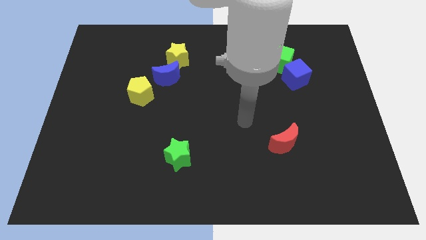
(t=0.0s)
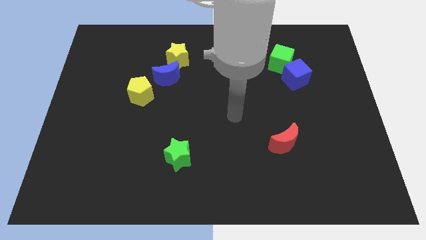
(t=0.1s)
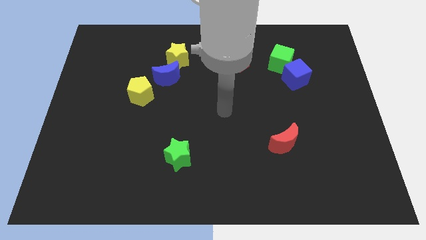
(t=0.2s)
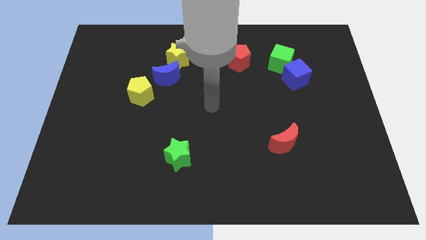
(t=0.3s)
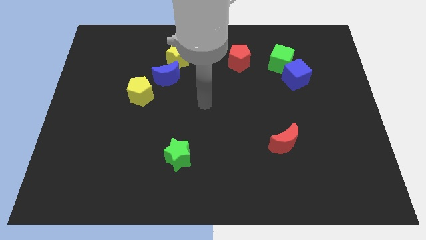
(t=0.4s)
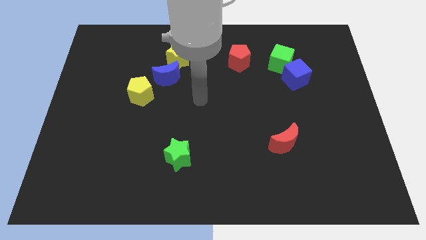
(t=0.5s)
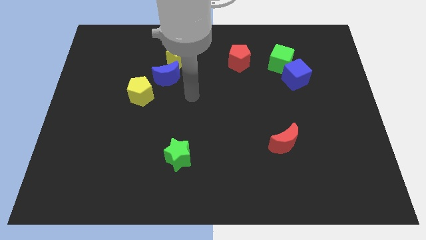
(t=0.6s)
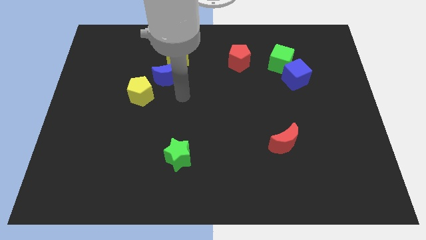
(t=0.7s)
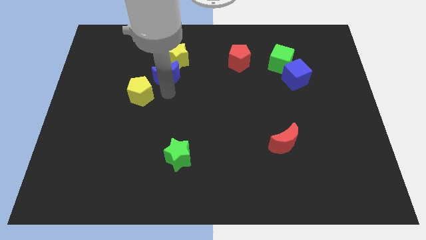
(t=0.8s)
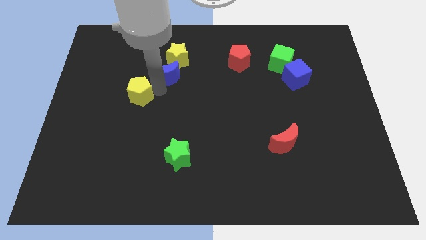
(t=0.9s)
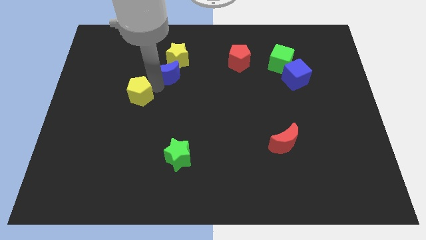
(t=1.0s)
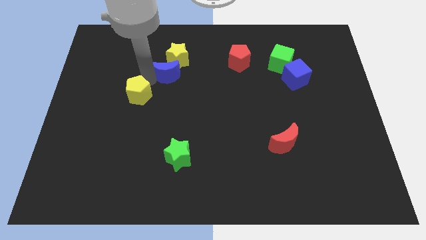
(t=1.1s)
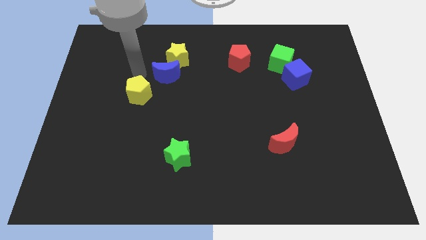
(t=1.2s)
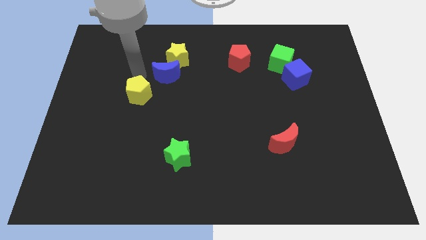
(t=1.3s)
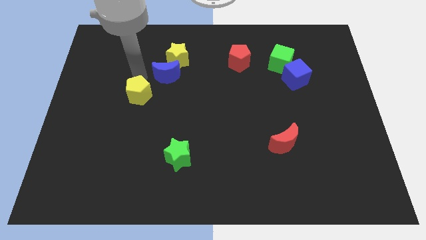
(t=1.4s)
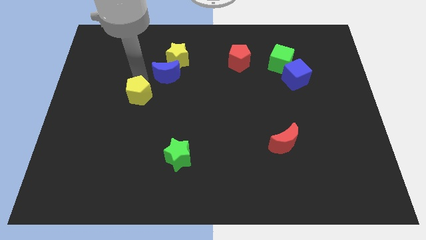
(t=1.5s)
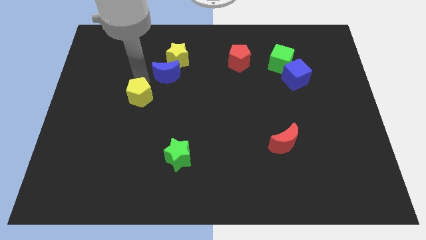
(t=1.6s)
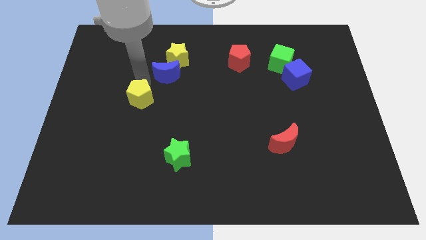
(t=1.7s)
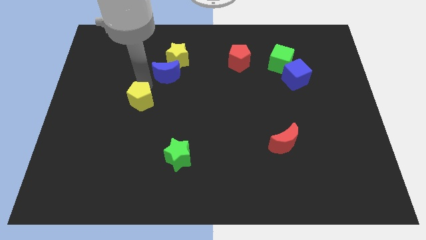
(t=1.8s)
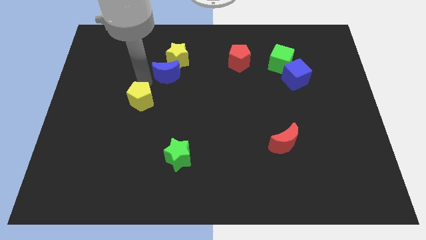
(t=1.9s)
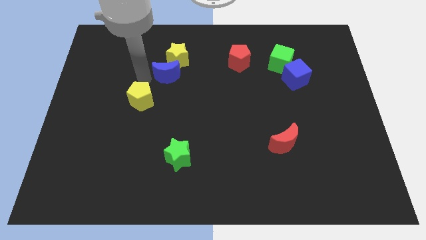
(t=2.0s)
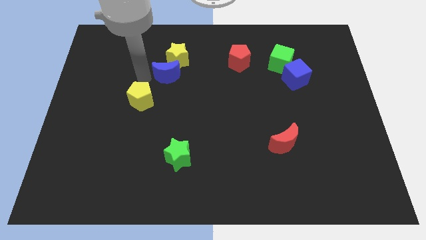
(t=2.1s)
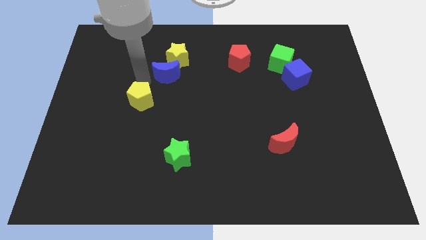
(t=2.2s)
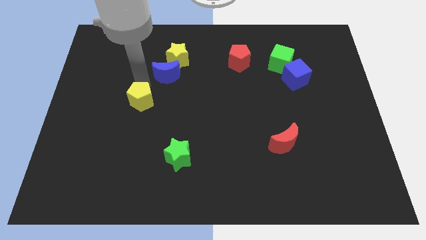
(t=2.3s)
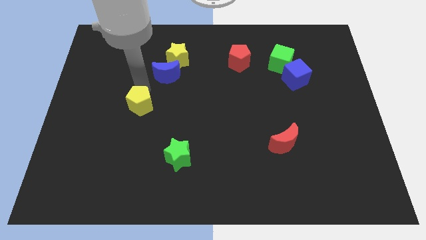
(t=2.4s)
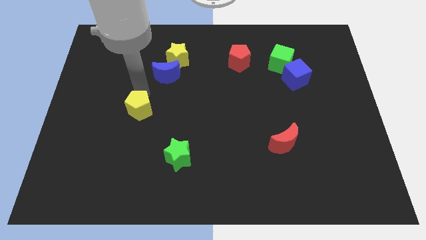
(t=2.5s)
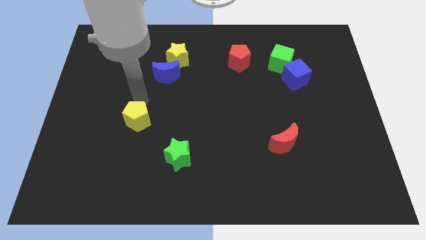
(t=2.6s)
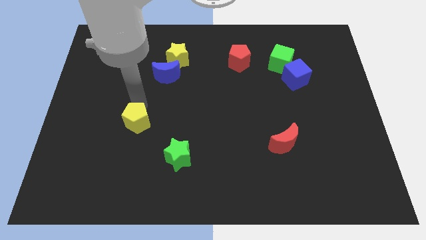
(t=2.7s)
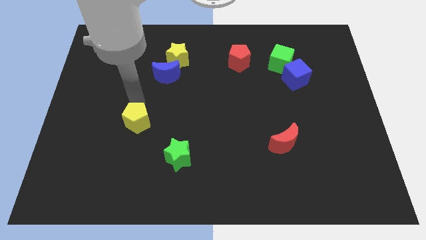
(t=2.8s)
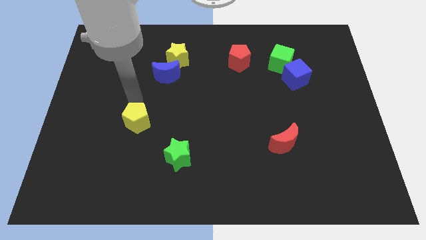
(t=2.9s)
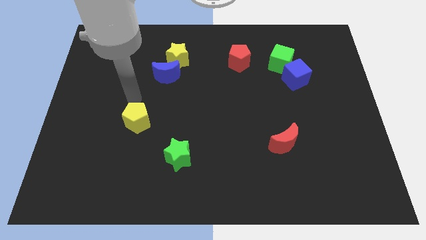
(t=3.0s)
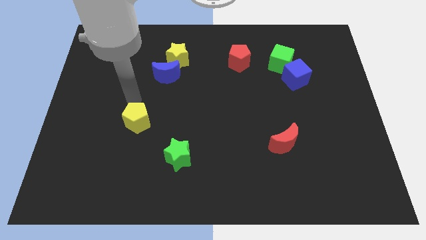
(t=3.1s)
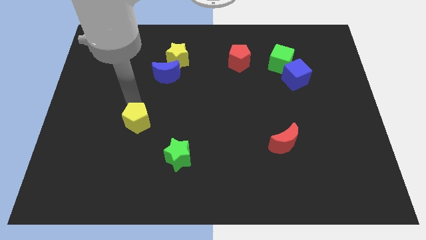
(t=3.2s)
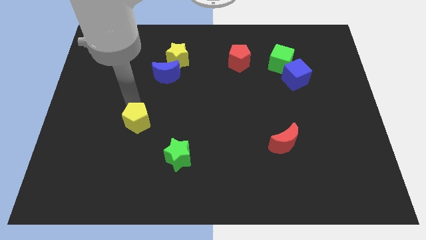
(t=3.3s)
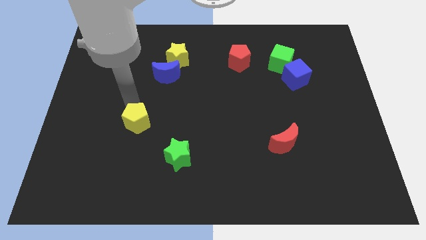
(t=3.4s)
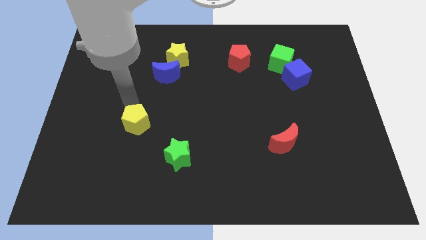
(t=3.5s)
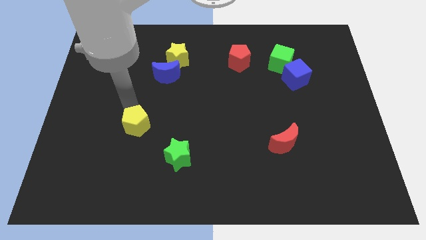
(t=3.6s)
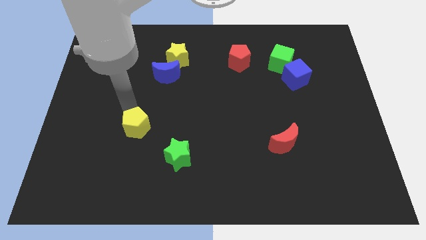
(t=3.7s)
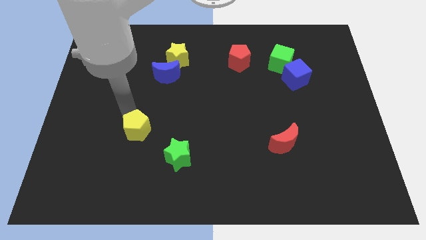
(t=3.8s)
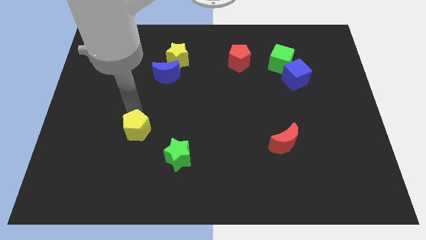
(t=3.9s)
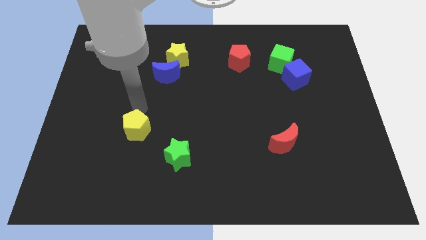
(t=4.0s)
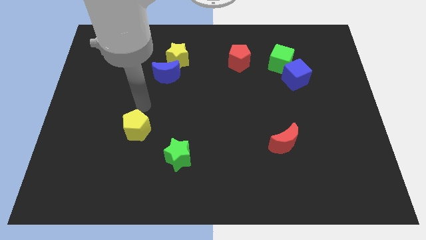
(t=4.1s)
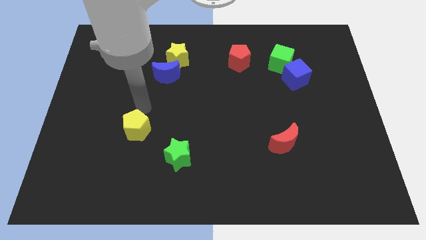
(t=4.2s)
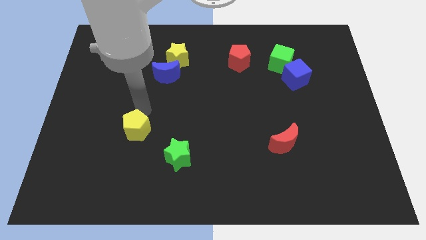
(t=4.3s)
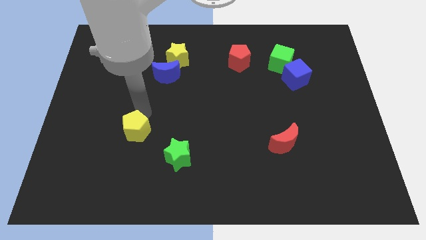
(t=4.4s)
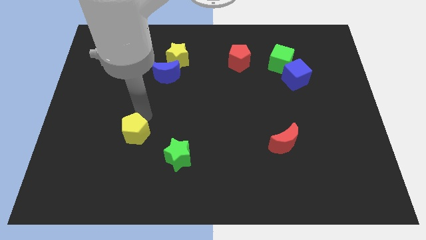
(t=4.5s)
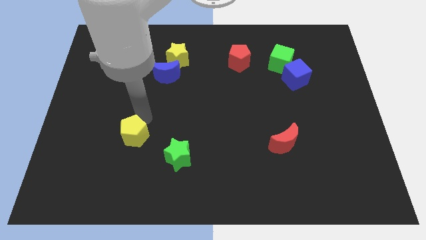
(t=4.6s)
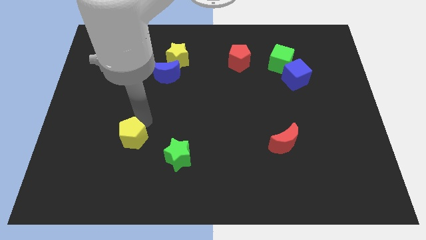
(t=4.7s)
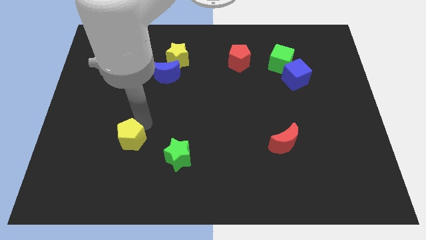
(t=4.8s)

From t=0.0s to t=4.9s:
put the yellow pentagon to the left side of the green star

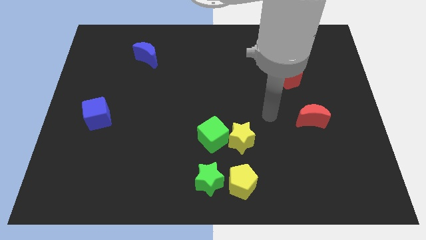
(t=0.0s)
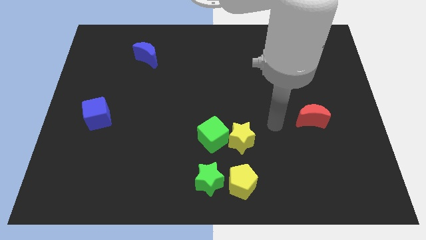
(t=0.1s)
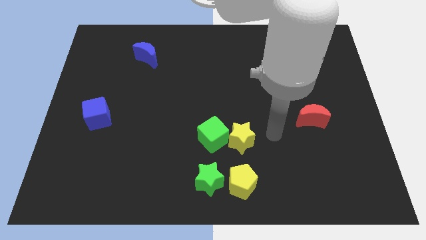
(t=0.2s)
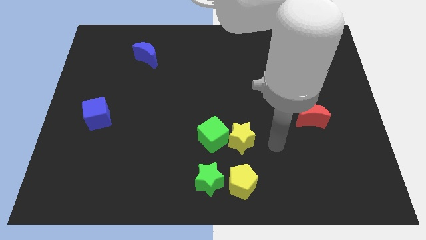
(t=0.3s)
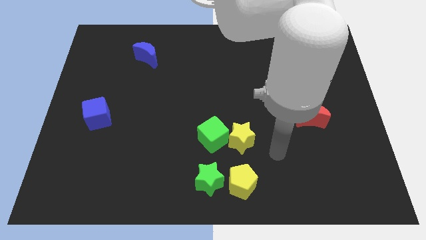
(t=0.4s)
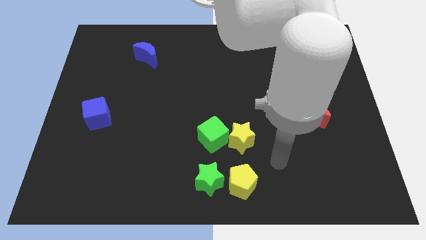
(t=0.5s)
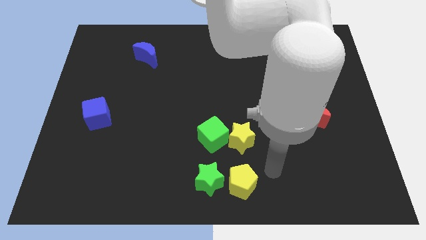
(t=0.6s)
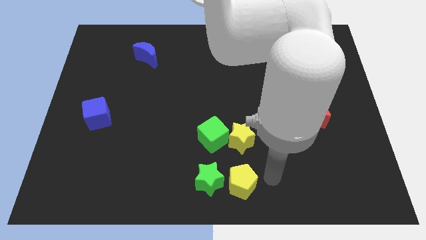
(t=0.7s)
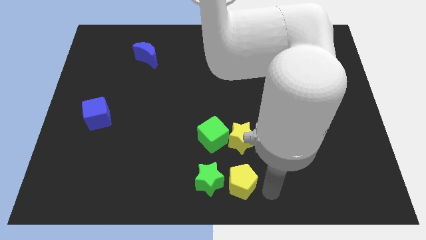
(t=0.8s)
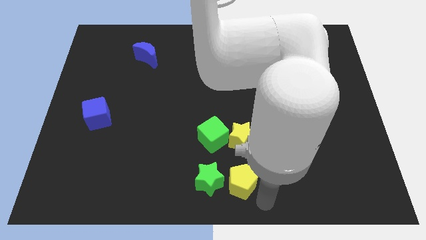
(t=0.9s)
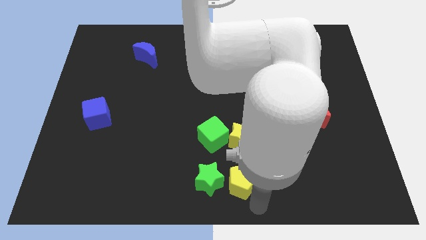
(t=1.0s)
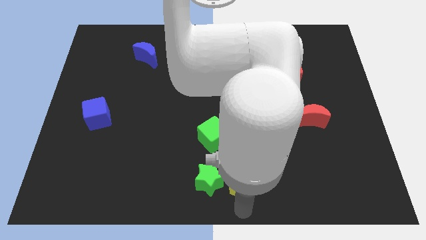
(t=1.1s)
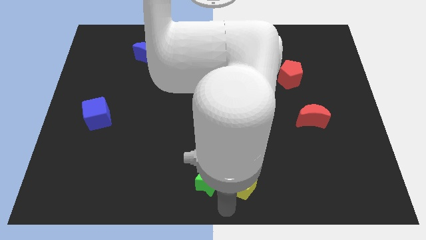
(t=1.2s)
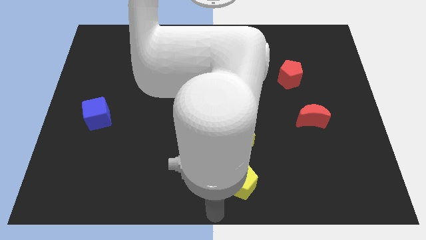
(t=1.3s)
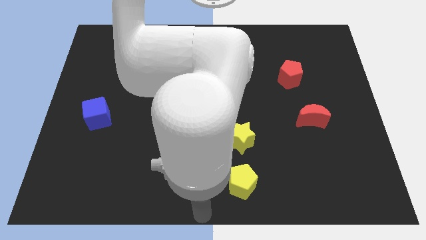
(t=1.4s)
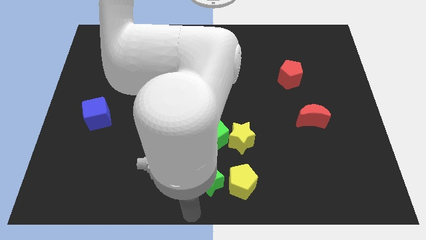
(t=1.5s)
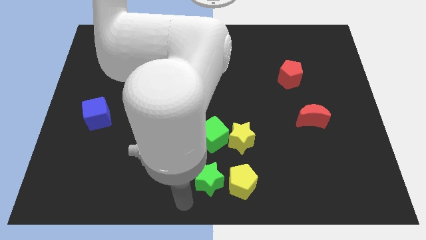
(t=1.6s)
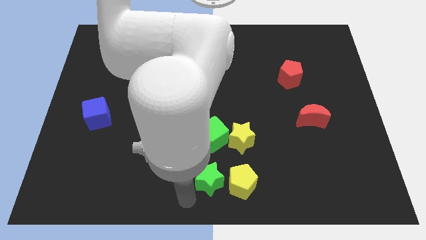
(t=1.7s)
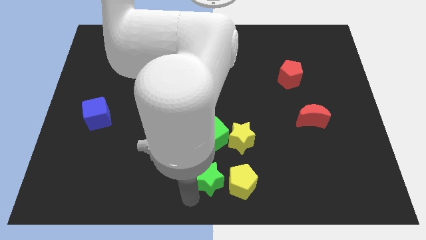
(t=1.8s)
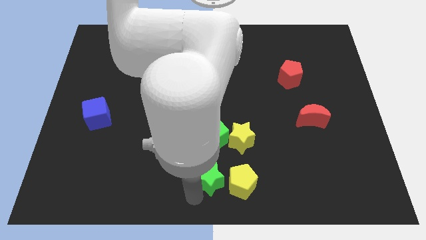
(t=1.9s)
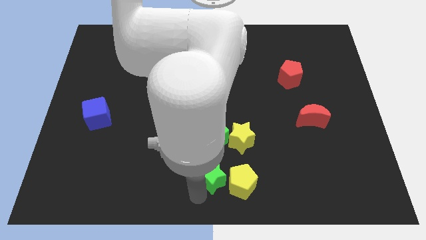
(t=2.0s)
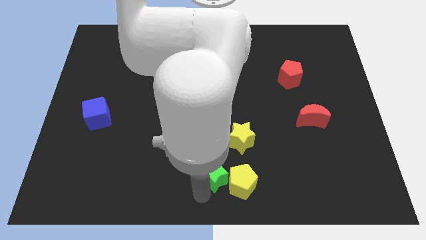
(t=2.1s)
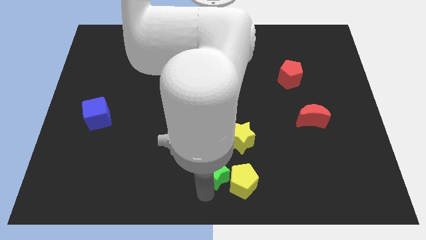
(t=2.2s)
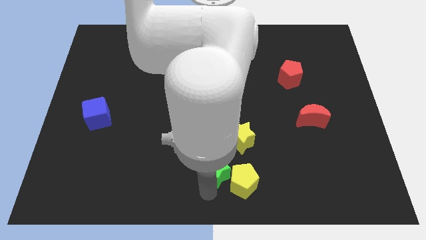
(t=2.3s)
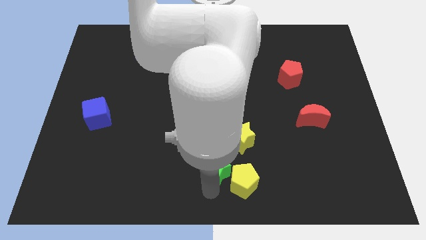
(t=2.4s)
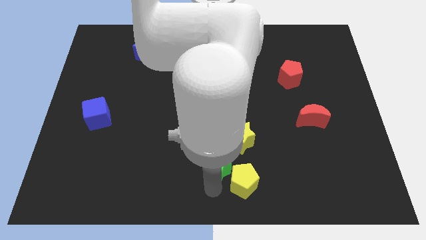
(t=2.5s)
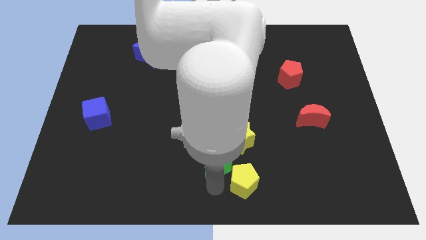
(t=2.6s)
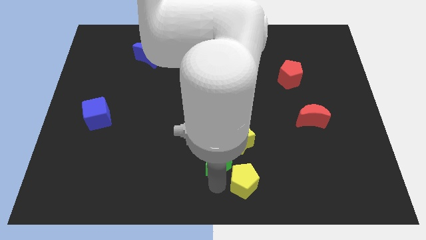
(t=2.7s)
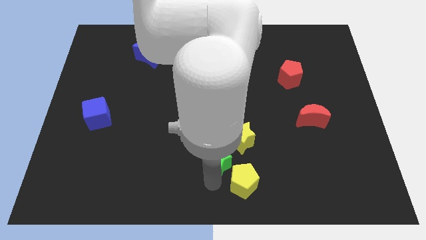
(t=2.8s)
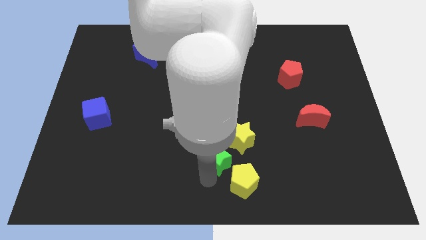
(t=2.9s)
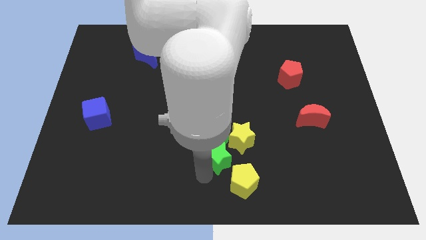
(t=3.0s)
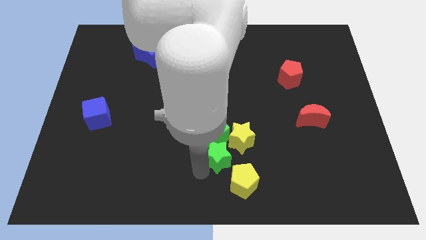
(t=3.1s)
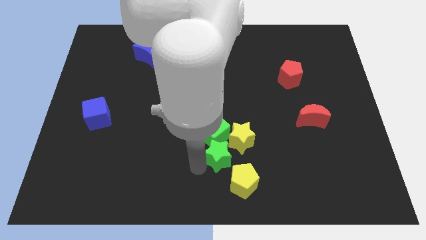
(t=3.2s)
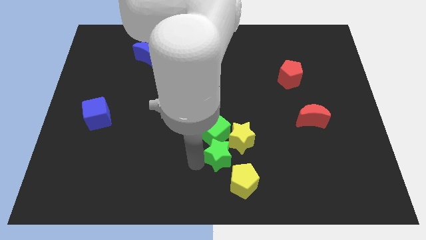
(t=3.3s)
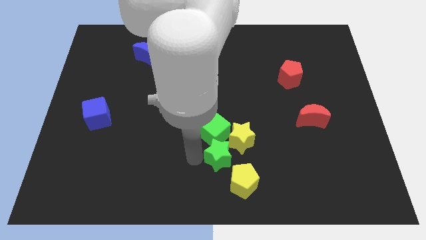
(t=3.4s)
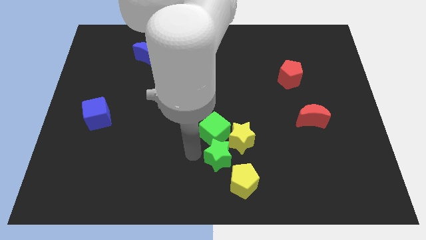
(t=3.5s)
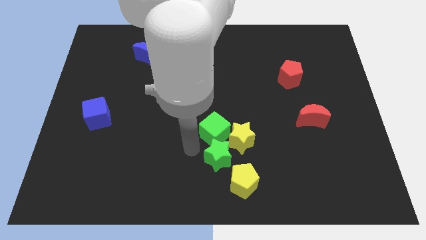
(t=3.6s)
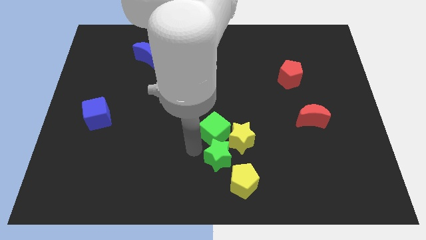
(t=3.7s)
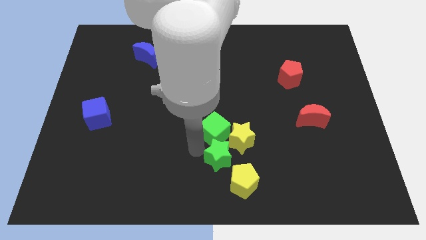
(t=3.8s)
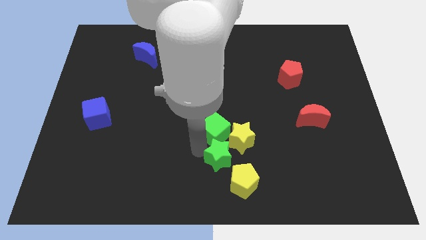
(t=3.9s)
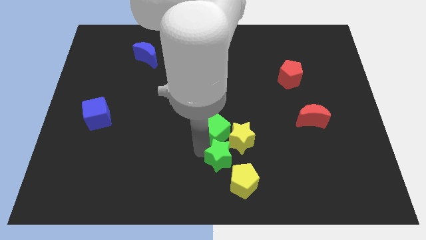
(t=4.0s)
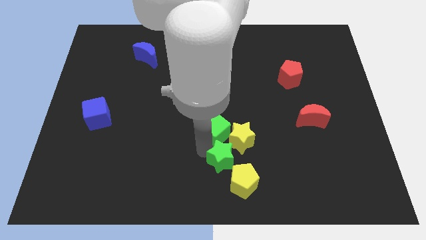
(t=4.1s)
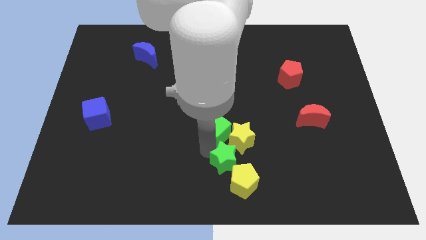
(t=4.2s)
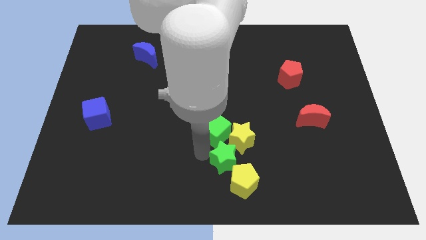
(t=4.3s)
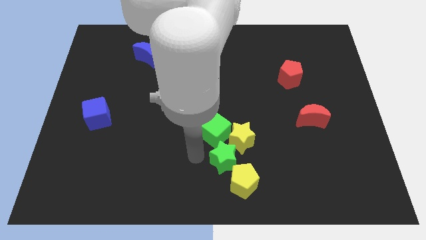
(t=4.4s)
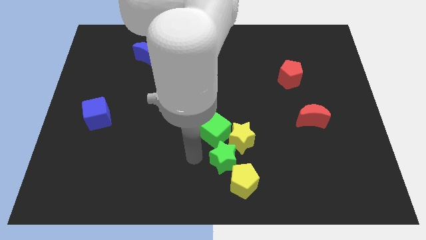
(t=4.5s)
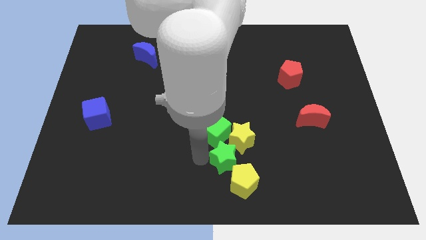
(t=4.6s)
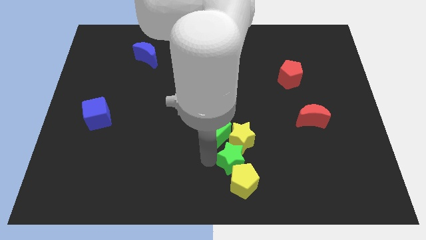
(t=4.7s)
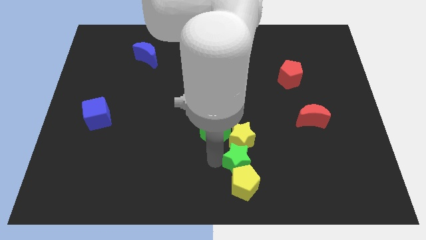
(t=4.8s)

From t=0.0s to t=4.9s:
put the green star to the bottom right of the yellow star
